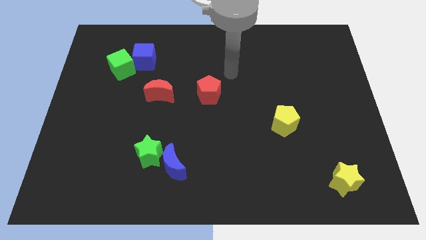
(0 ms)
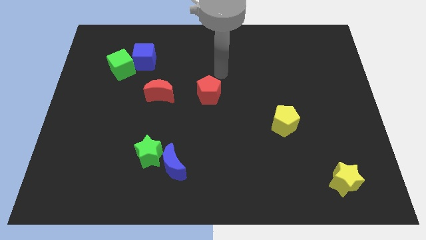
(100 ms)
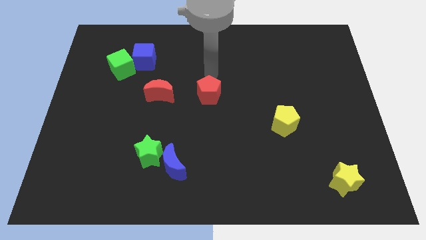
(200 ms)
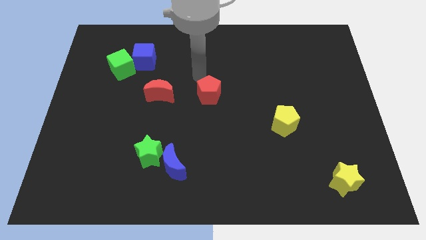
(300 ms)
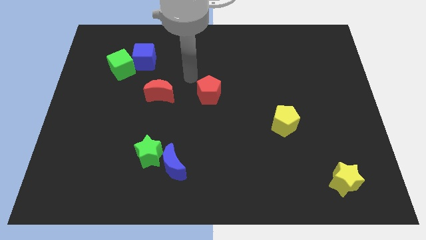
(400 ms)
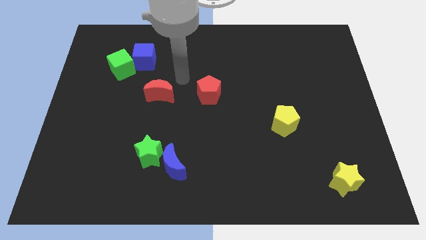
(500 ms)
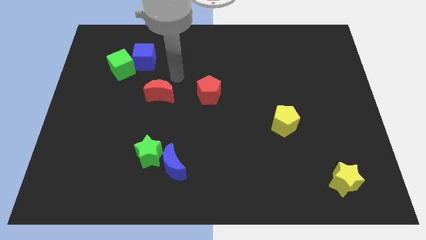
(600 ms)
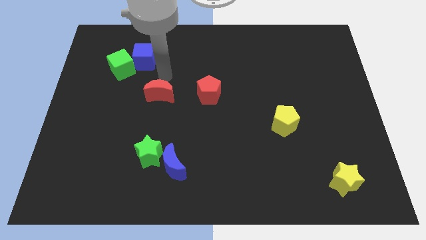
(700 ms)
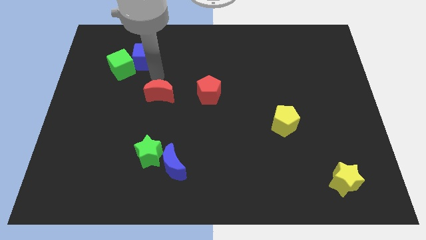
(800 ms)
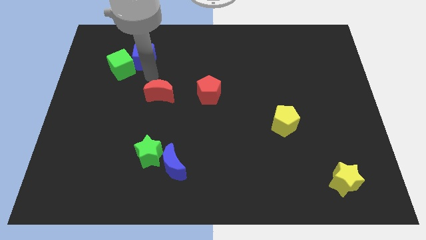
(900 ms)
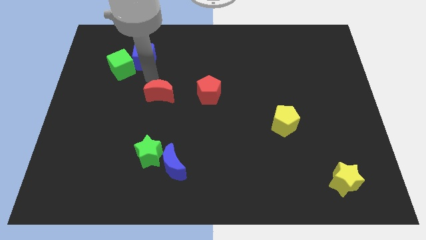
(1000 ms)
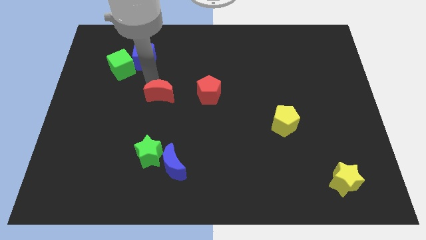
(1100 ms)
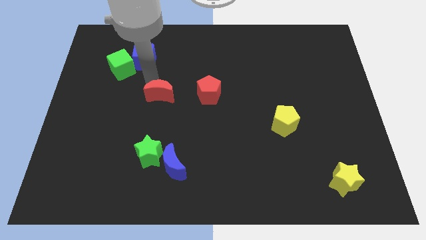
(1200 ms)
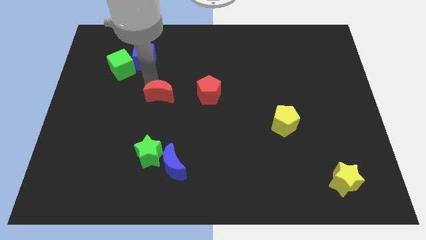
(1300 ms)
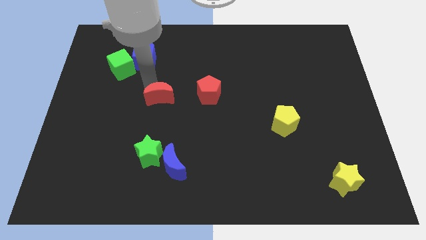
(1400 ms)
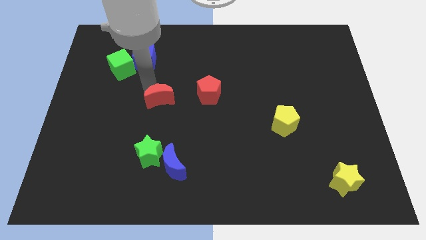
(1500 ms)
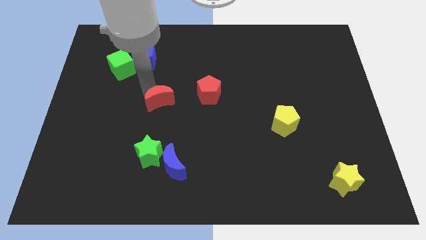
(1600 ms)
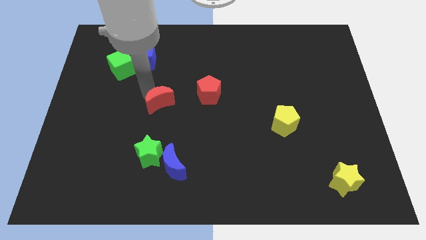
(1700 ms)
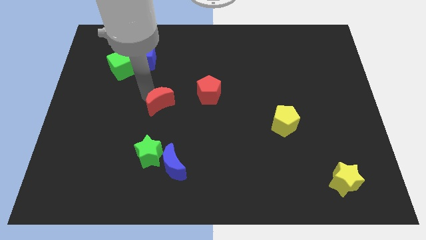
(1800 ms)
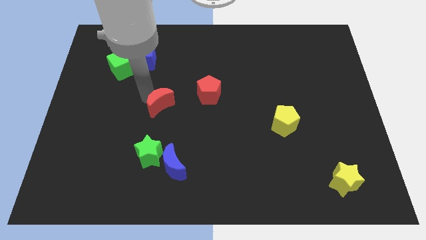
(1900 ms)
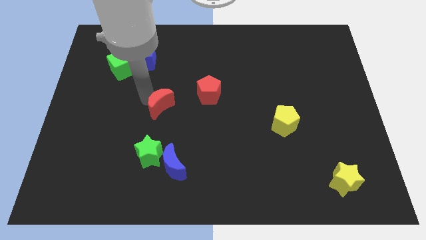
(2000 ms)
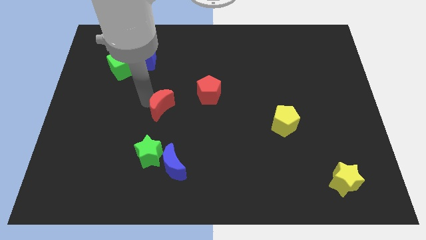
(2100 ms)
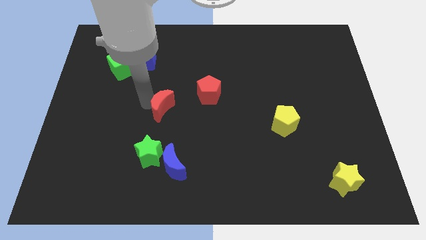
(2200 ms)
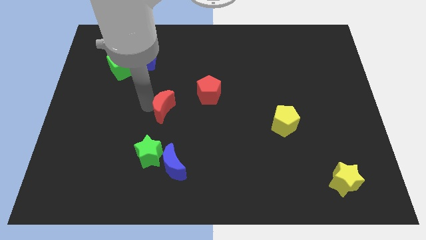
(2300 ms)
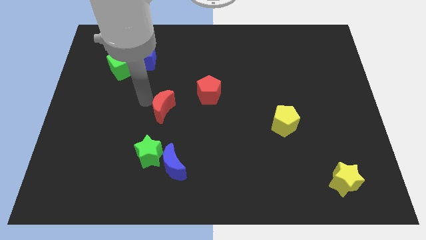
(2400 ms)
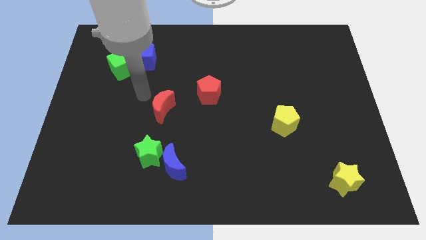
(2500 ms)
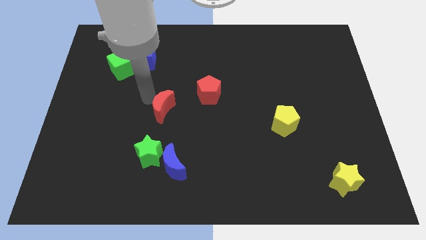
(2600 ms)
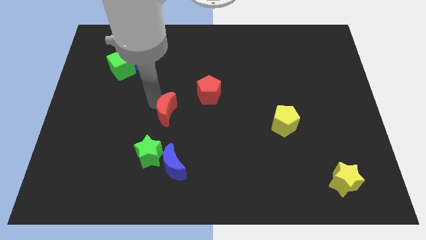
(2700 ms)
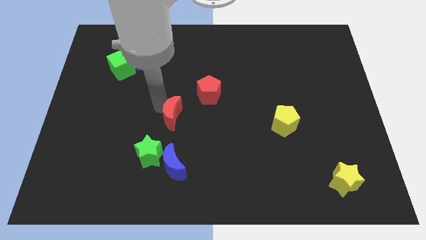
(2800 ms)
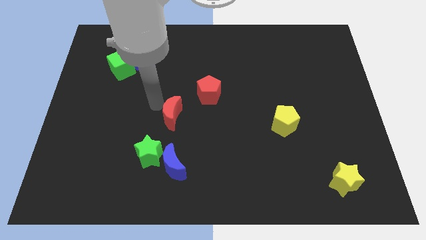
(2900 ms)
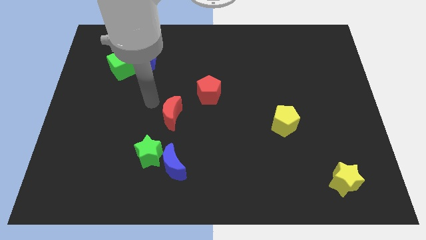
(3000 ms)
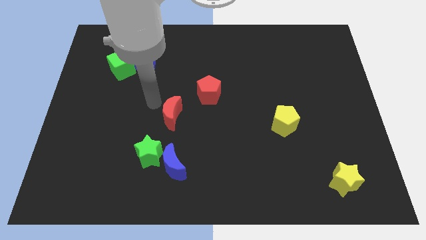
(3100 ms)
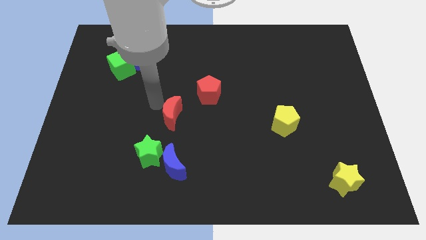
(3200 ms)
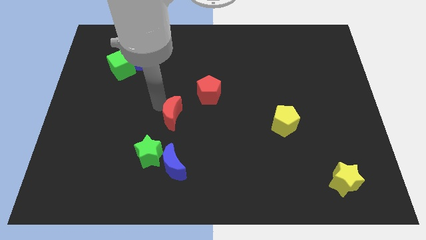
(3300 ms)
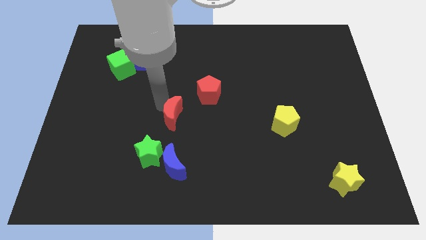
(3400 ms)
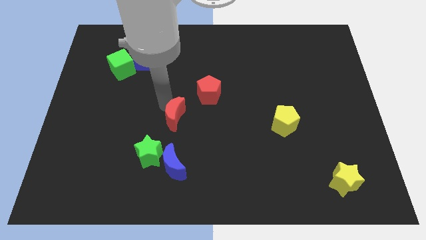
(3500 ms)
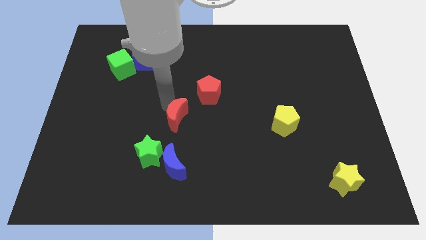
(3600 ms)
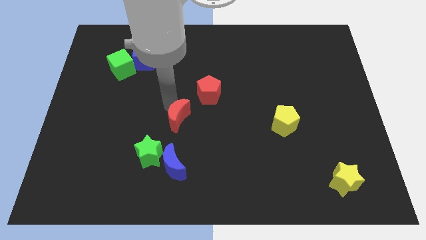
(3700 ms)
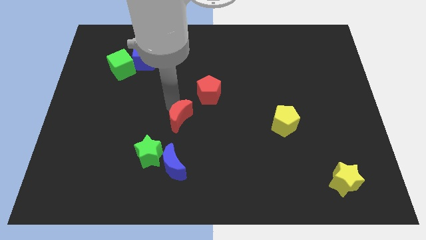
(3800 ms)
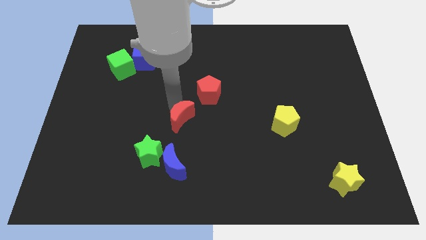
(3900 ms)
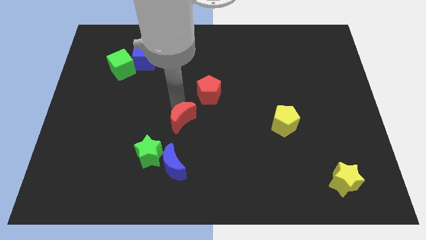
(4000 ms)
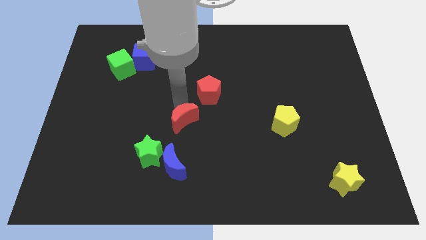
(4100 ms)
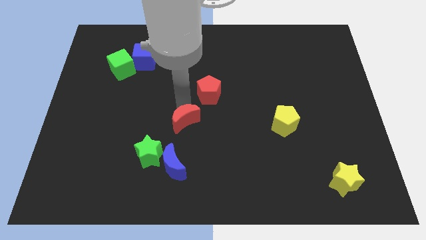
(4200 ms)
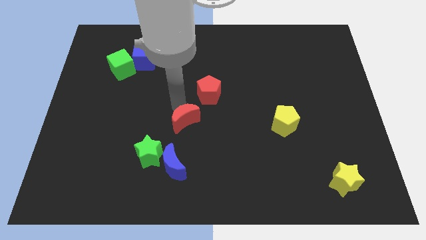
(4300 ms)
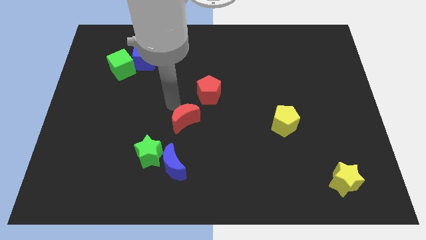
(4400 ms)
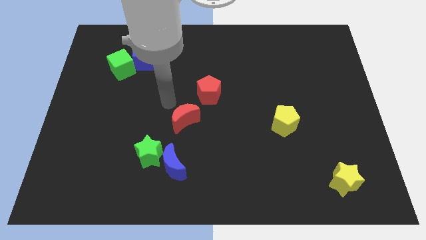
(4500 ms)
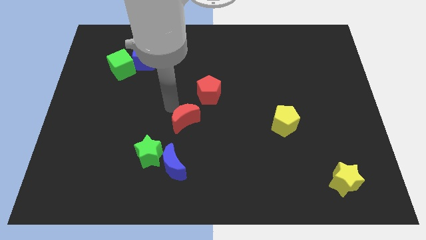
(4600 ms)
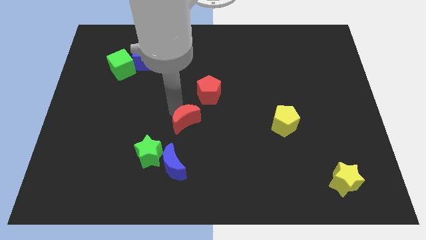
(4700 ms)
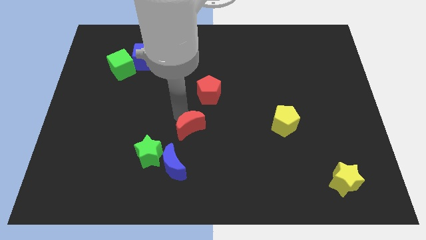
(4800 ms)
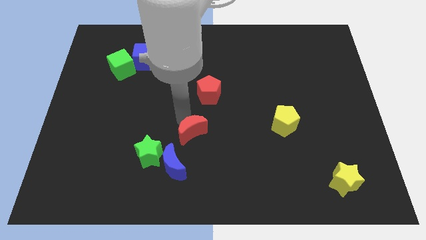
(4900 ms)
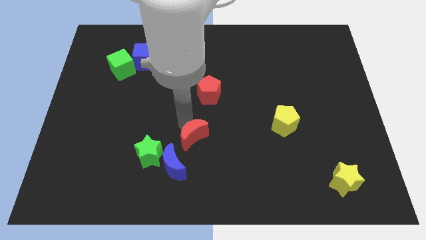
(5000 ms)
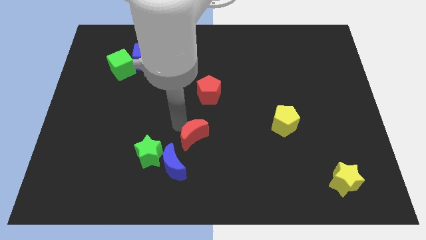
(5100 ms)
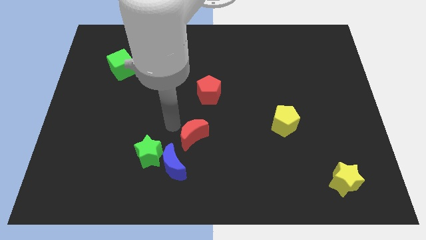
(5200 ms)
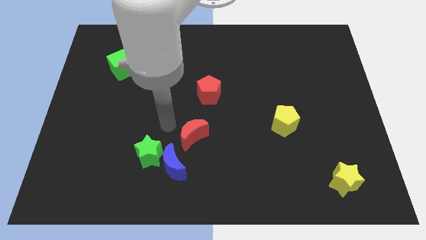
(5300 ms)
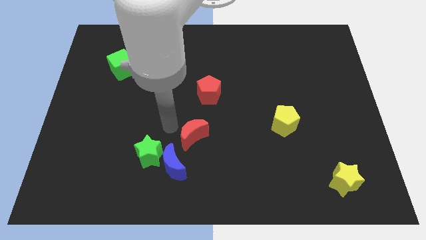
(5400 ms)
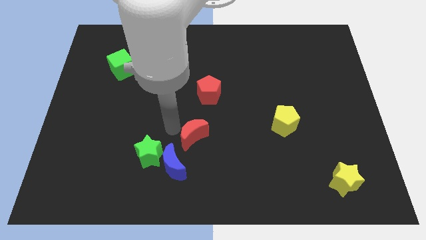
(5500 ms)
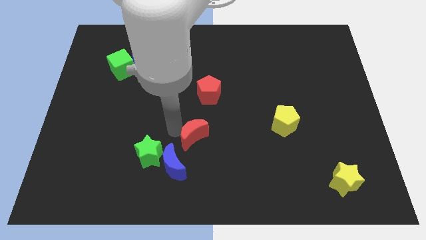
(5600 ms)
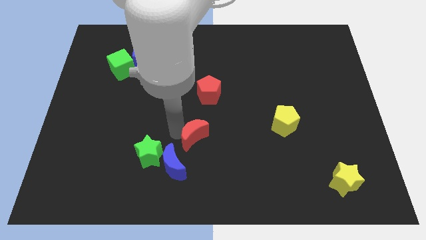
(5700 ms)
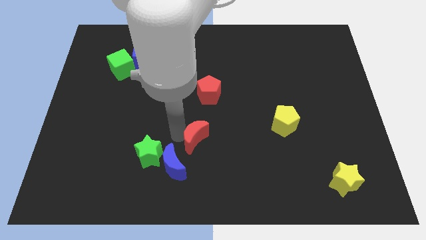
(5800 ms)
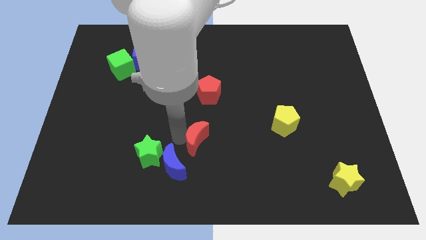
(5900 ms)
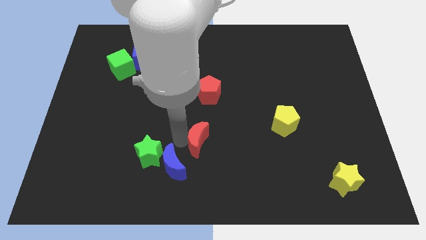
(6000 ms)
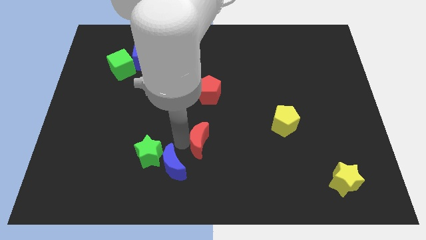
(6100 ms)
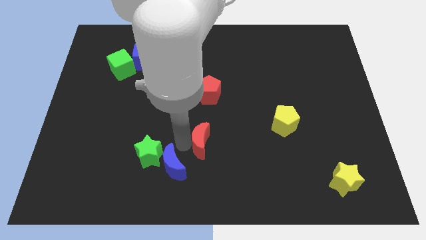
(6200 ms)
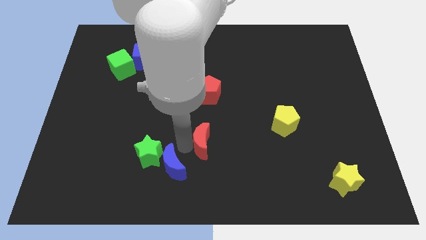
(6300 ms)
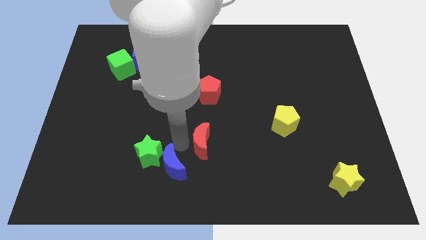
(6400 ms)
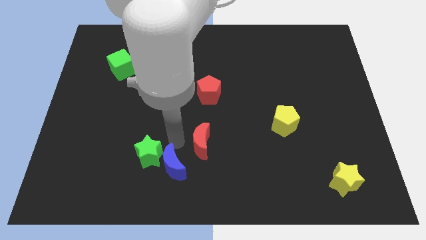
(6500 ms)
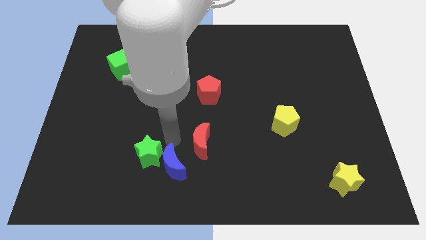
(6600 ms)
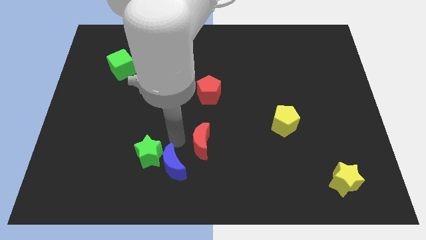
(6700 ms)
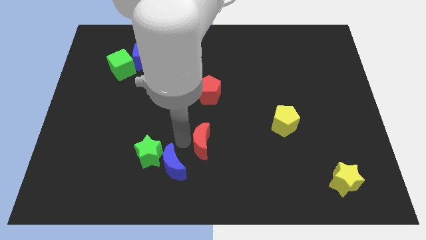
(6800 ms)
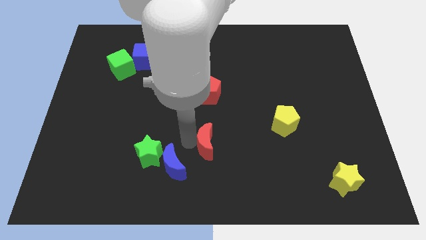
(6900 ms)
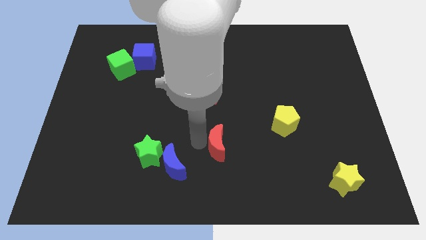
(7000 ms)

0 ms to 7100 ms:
push the red moon downwards and right

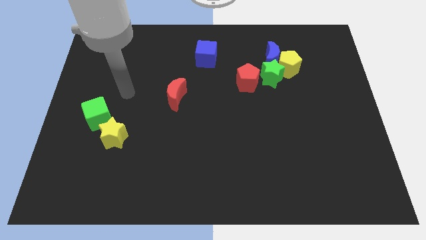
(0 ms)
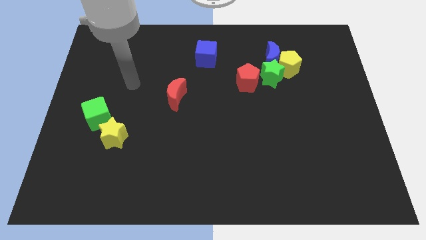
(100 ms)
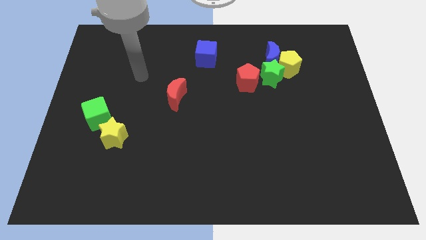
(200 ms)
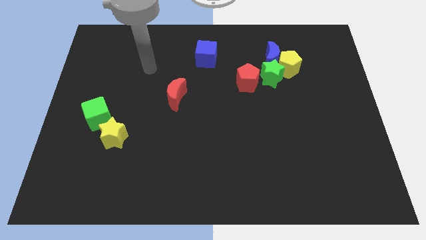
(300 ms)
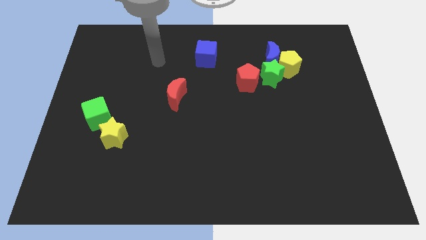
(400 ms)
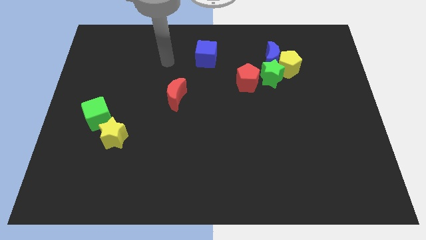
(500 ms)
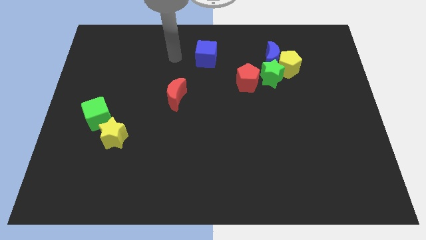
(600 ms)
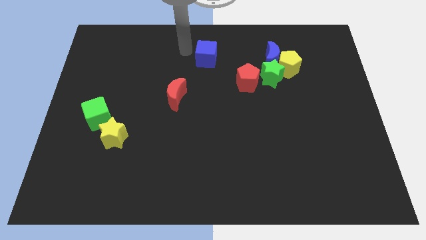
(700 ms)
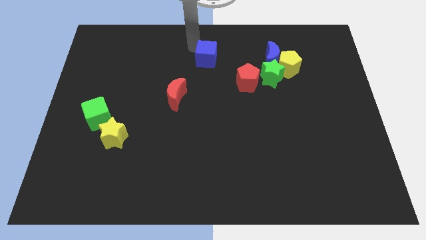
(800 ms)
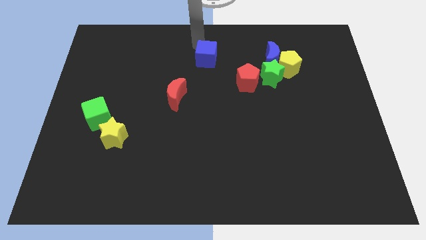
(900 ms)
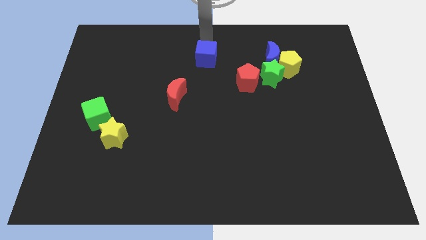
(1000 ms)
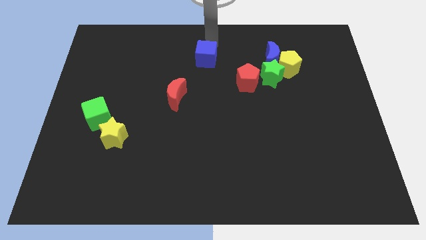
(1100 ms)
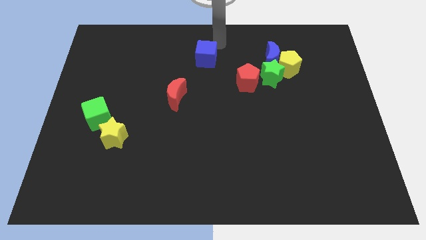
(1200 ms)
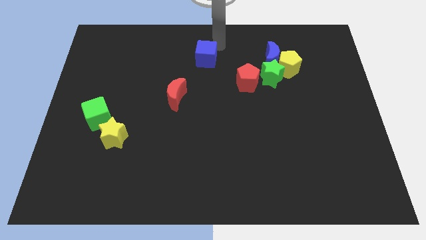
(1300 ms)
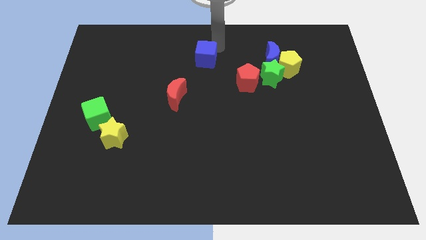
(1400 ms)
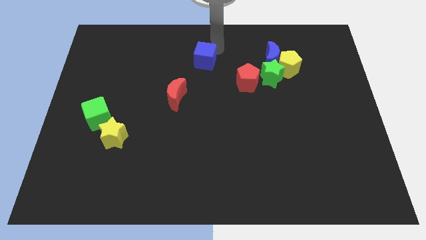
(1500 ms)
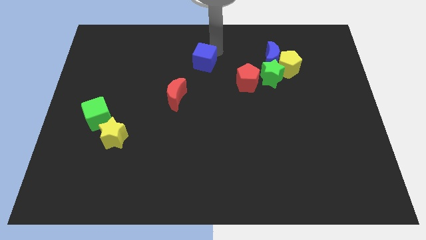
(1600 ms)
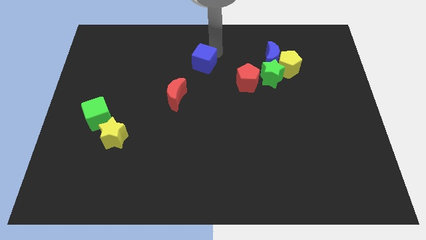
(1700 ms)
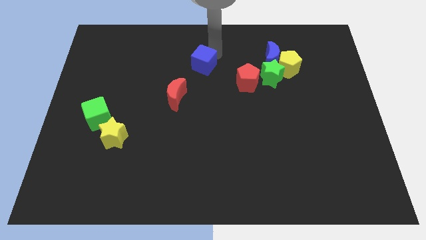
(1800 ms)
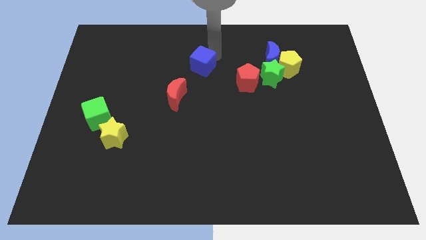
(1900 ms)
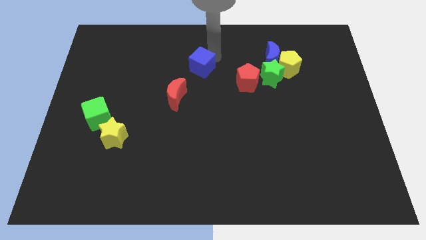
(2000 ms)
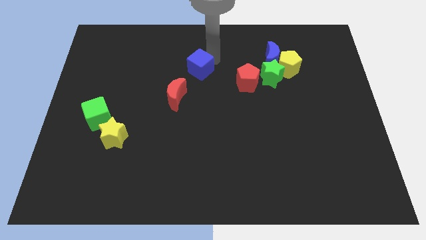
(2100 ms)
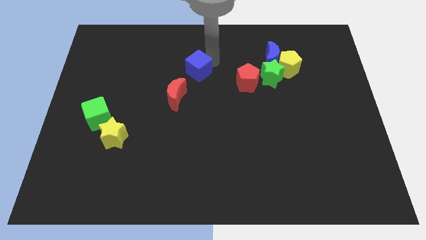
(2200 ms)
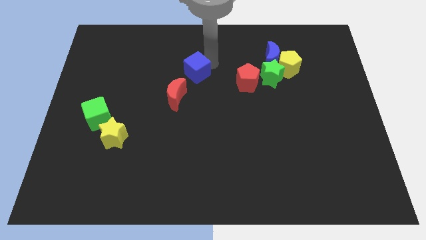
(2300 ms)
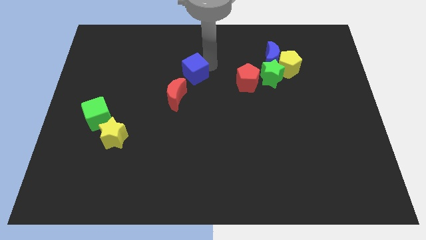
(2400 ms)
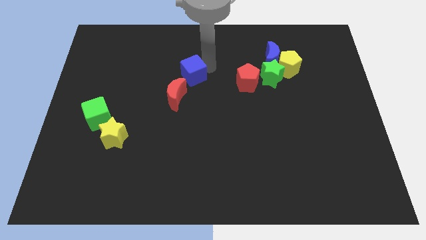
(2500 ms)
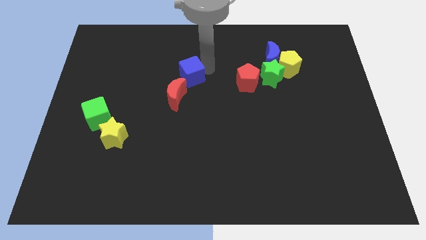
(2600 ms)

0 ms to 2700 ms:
move the blue cube down and left diagonally somewhat
